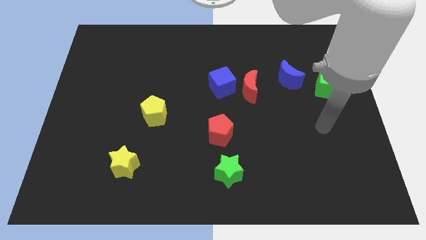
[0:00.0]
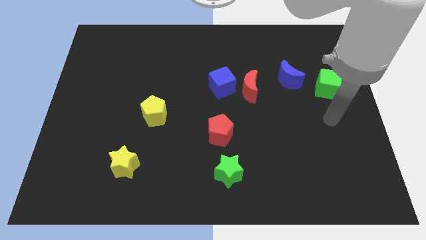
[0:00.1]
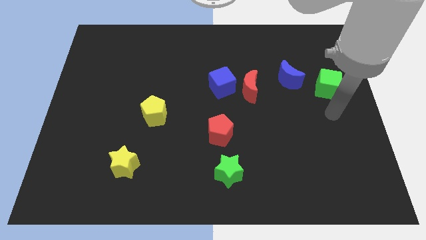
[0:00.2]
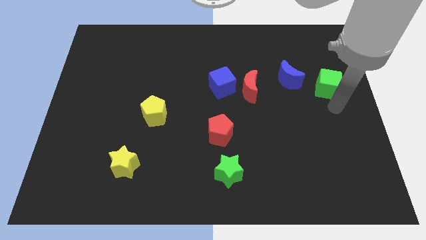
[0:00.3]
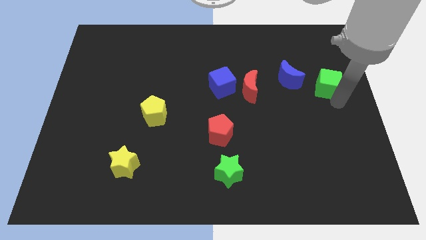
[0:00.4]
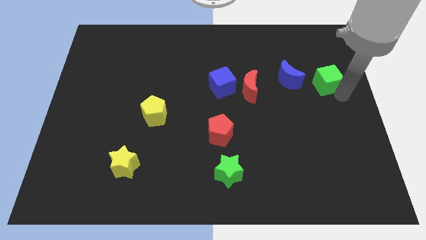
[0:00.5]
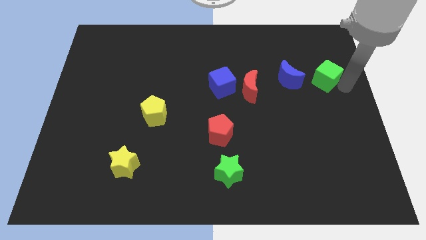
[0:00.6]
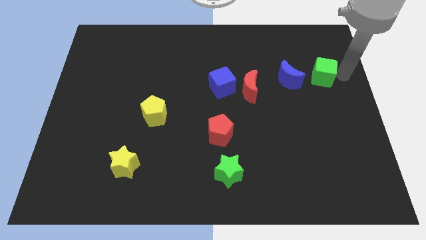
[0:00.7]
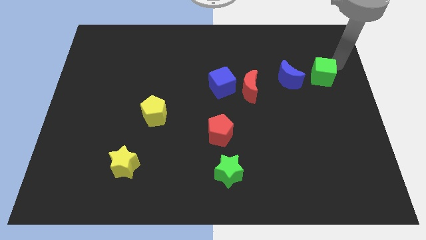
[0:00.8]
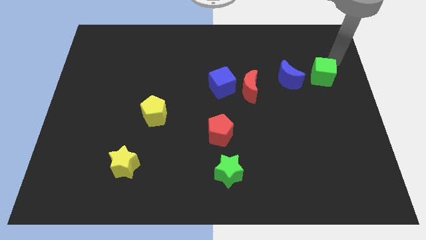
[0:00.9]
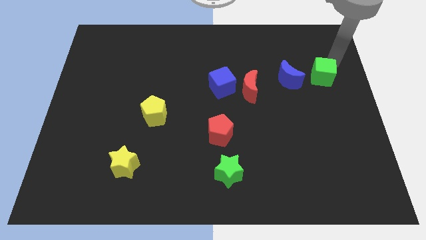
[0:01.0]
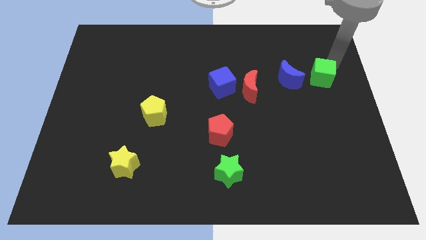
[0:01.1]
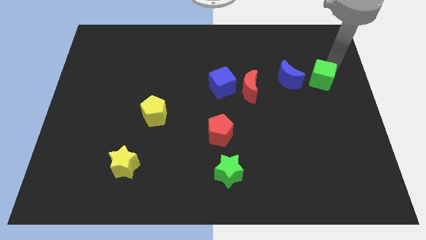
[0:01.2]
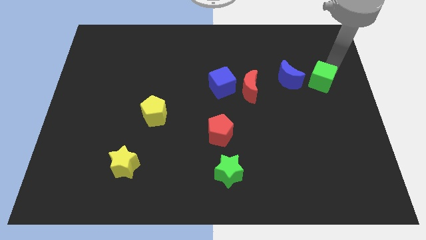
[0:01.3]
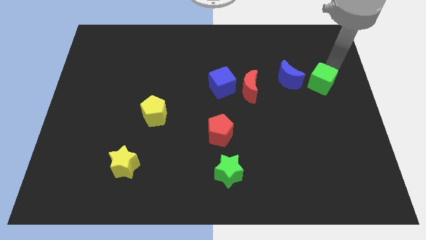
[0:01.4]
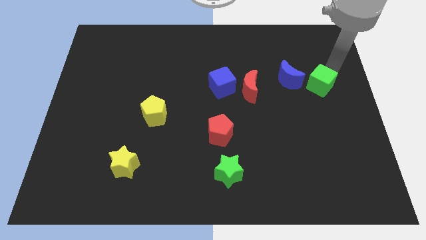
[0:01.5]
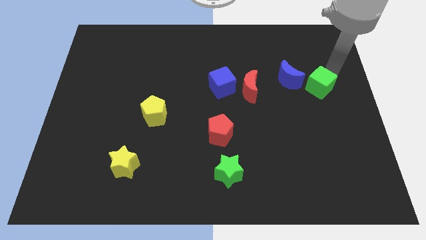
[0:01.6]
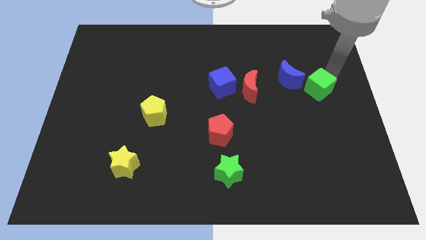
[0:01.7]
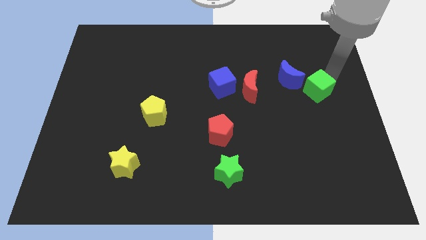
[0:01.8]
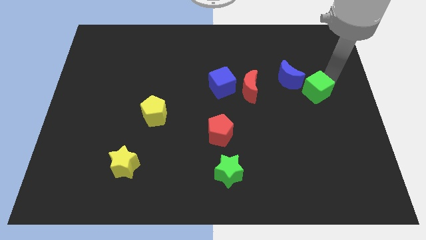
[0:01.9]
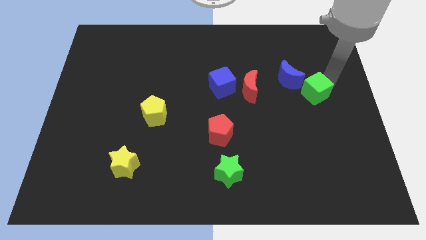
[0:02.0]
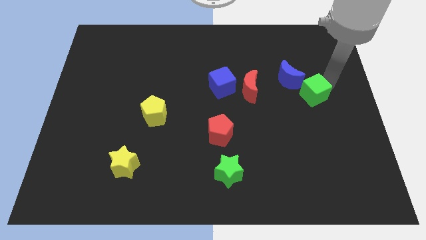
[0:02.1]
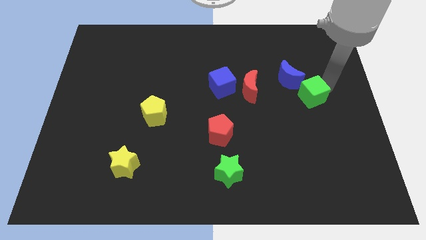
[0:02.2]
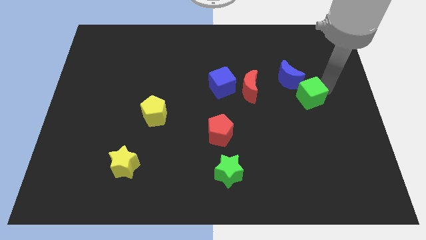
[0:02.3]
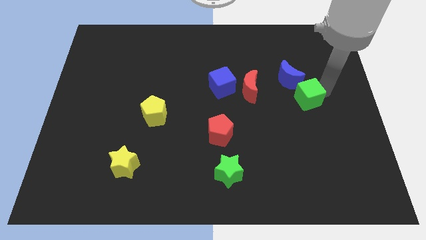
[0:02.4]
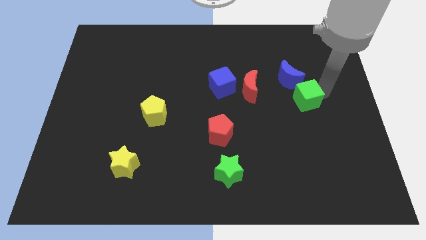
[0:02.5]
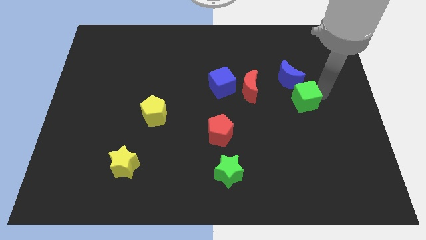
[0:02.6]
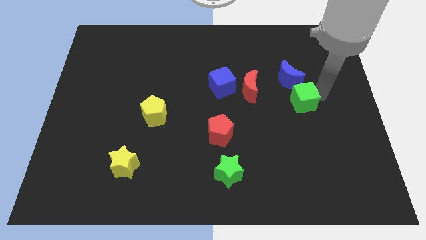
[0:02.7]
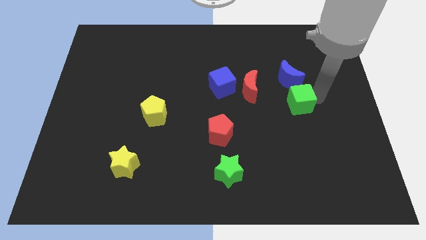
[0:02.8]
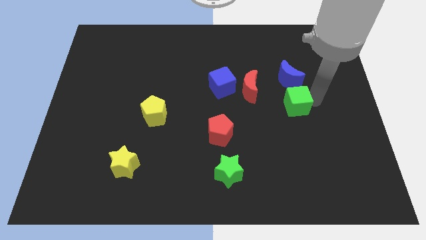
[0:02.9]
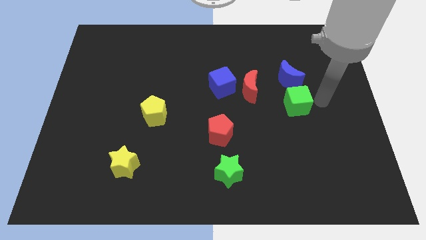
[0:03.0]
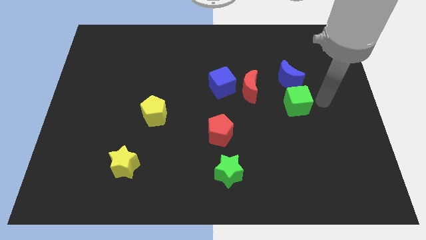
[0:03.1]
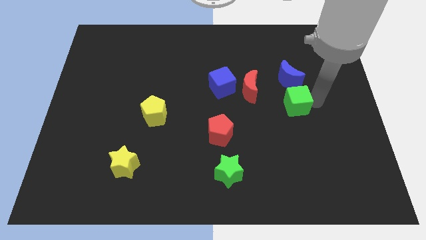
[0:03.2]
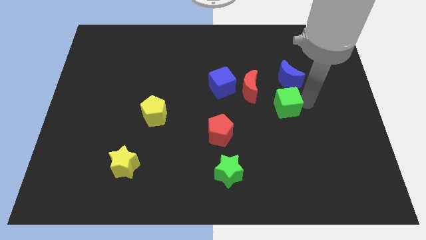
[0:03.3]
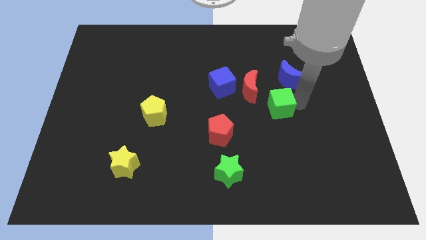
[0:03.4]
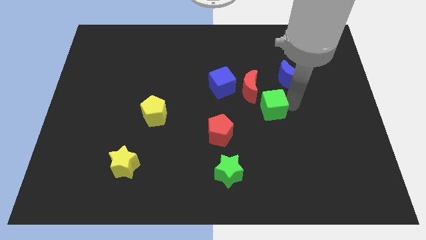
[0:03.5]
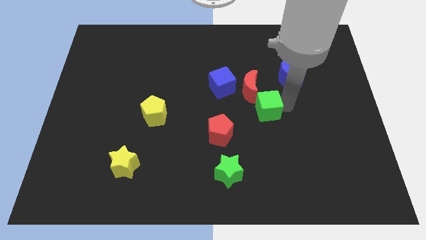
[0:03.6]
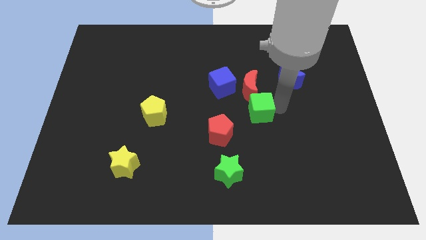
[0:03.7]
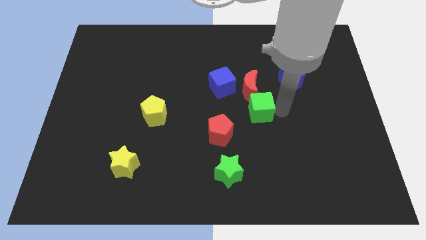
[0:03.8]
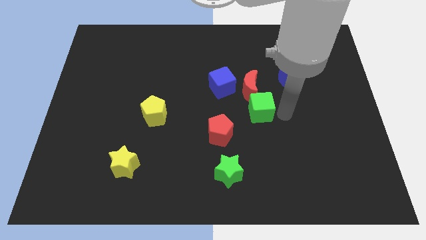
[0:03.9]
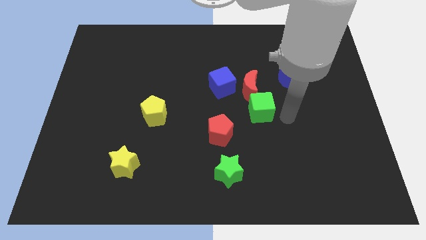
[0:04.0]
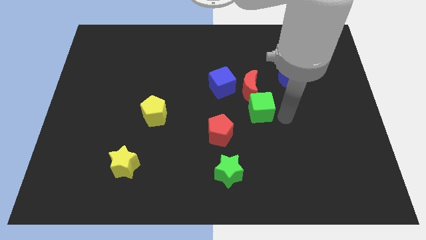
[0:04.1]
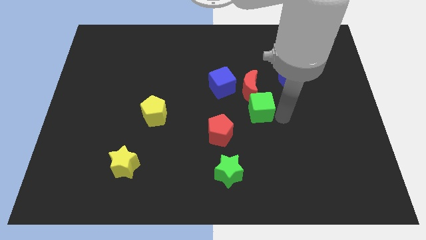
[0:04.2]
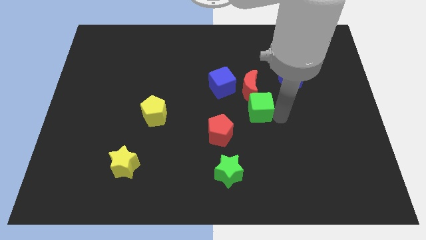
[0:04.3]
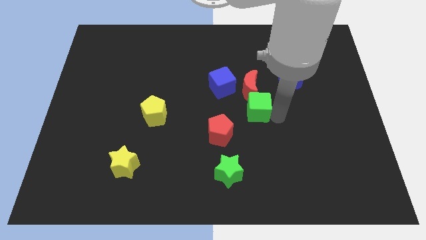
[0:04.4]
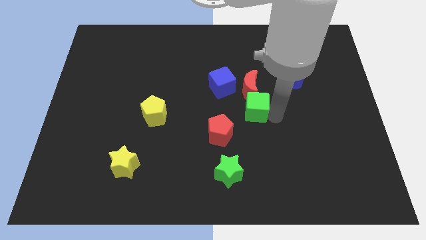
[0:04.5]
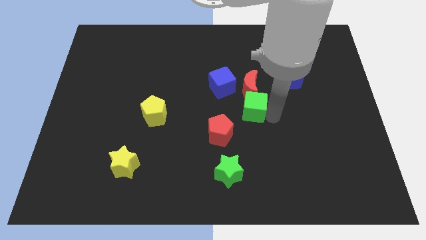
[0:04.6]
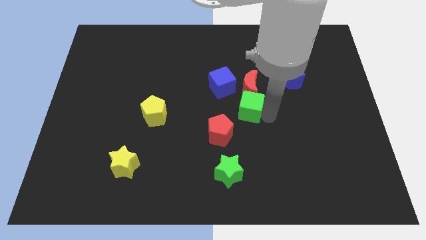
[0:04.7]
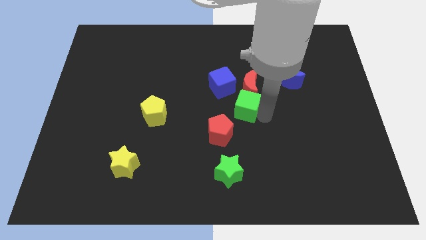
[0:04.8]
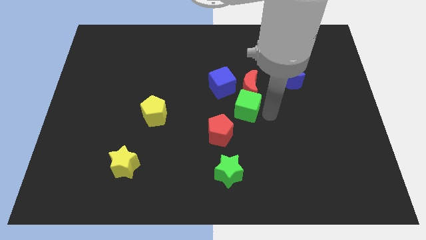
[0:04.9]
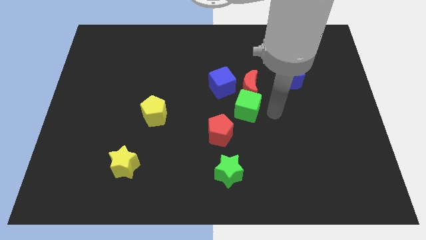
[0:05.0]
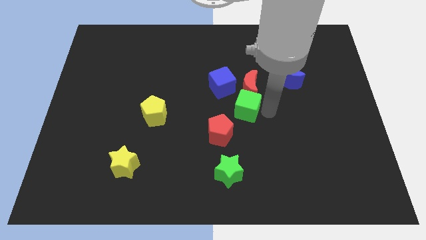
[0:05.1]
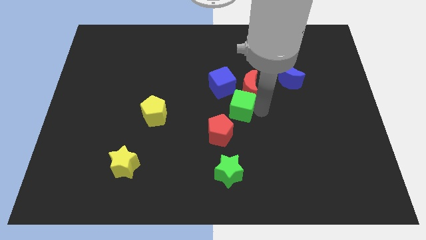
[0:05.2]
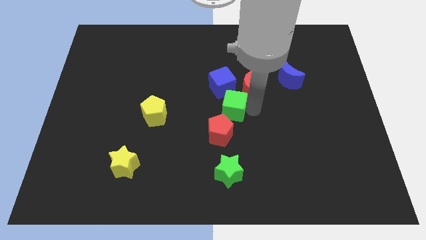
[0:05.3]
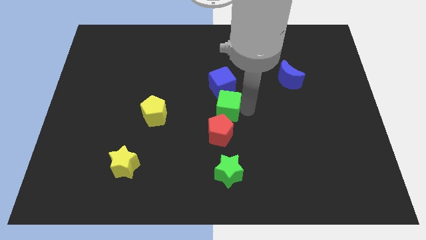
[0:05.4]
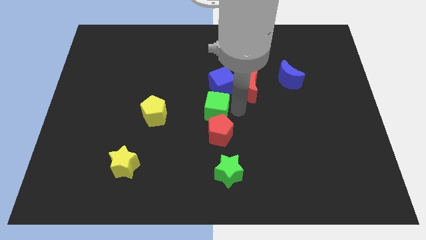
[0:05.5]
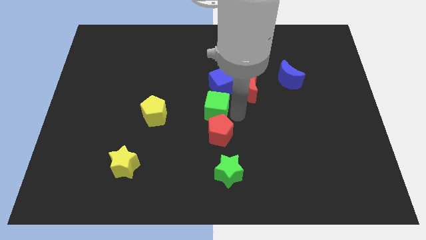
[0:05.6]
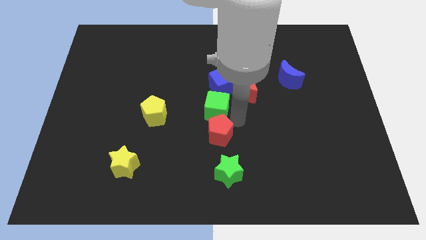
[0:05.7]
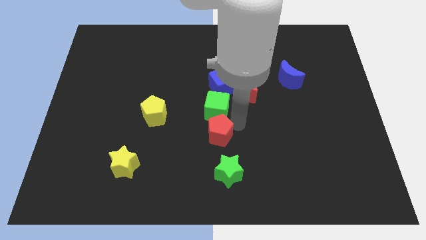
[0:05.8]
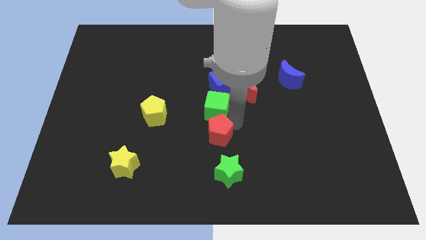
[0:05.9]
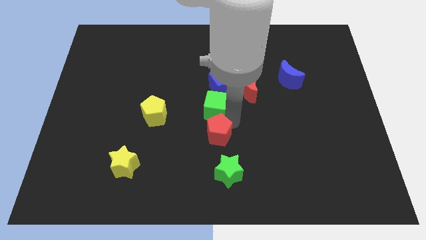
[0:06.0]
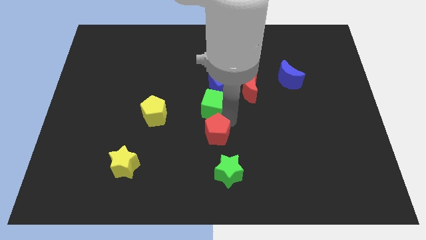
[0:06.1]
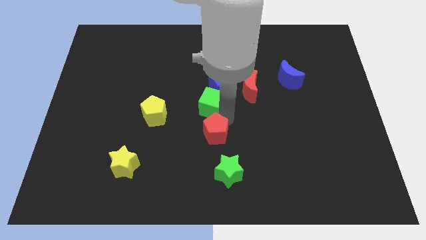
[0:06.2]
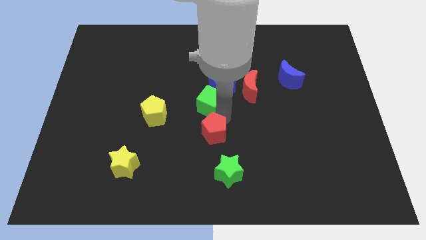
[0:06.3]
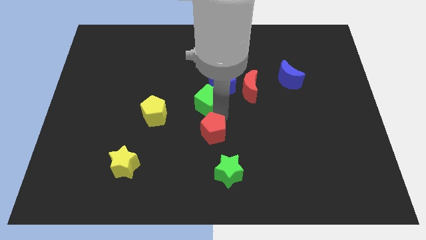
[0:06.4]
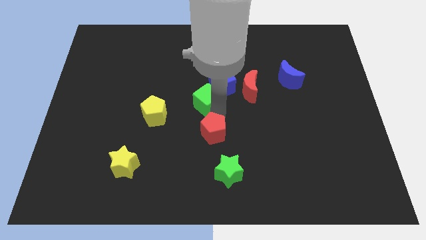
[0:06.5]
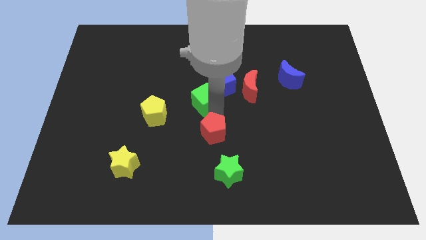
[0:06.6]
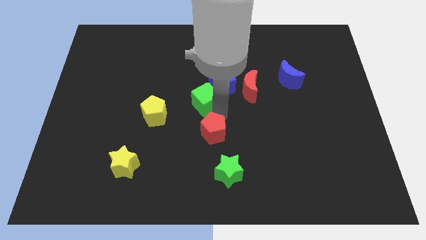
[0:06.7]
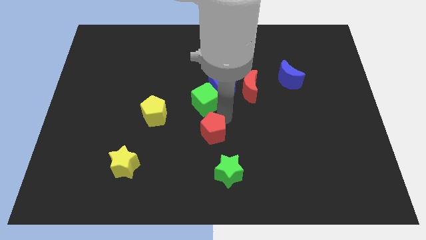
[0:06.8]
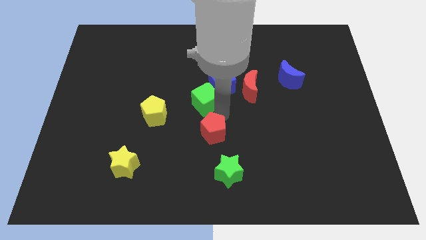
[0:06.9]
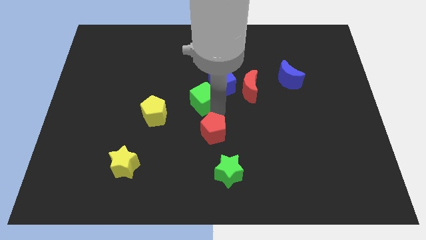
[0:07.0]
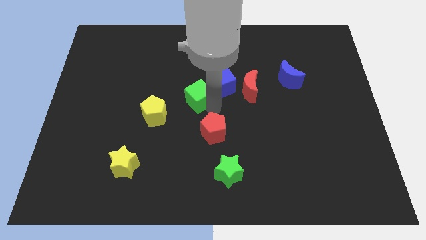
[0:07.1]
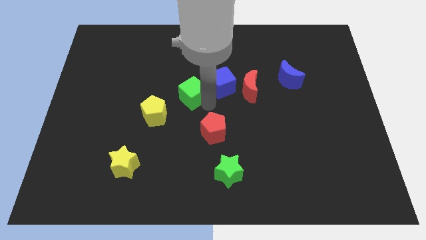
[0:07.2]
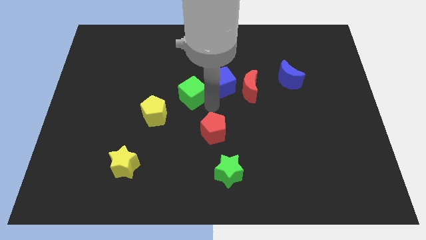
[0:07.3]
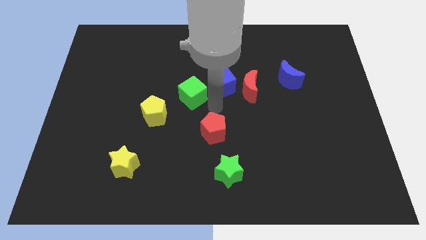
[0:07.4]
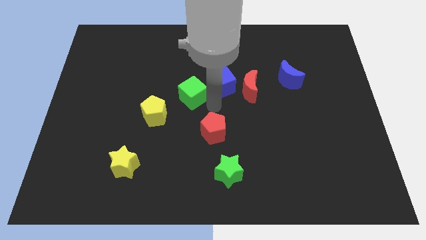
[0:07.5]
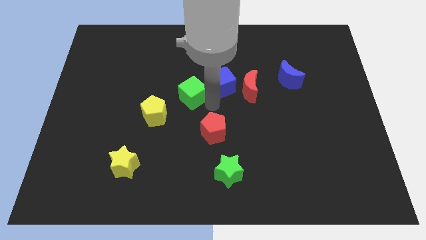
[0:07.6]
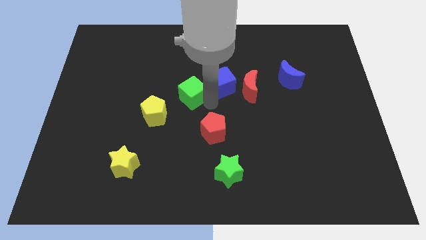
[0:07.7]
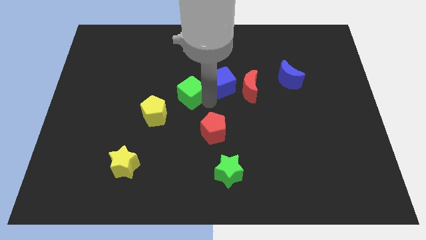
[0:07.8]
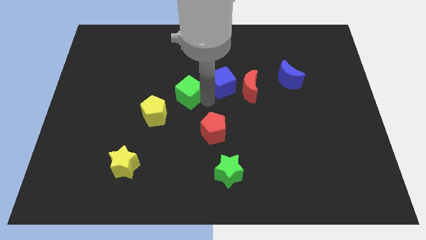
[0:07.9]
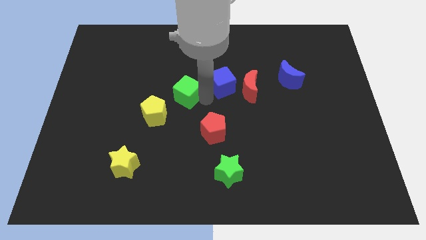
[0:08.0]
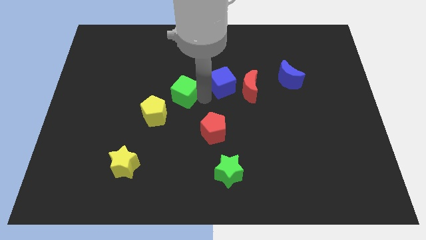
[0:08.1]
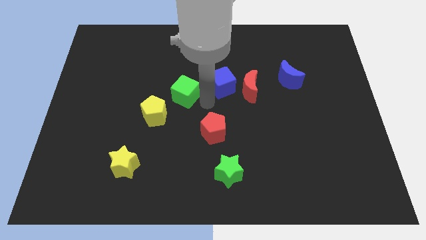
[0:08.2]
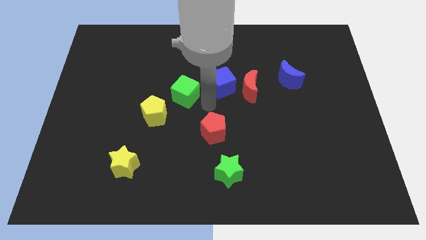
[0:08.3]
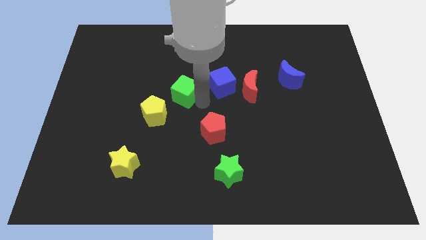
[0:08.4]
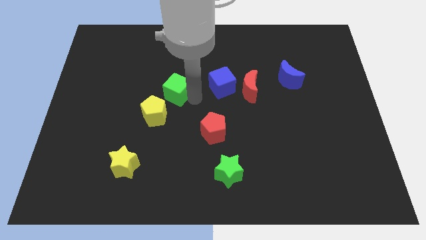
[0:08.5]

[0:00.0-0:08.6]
move the green cube to the top of the yellow pentagon
